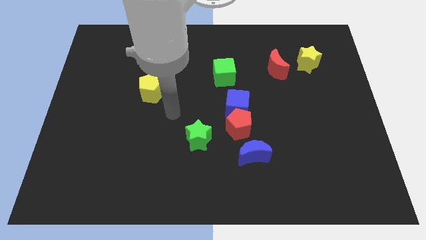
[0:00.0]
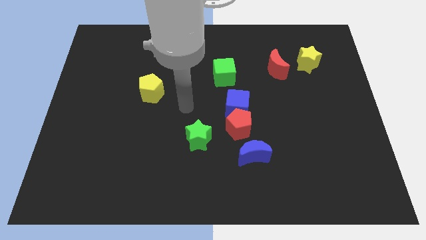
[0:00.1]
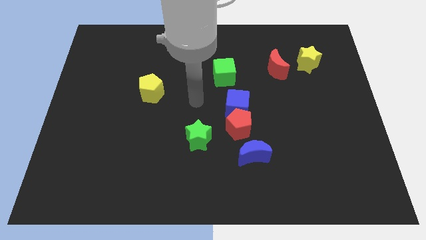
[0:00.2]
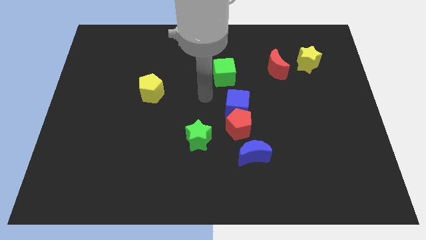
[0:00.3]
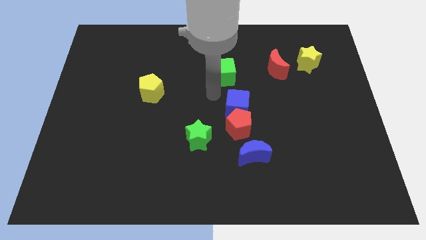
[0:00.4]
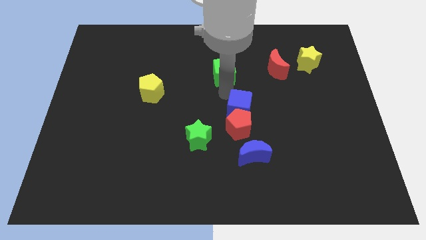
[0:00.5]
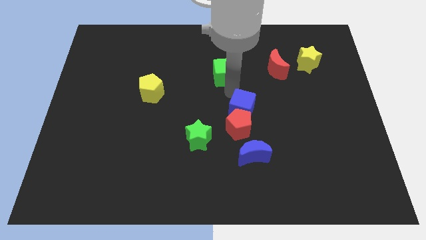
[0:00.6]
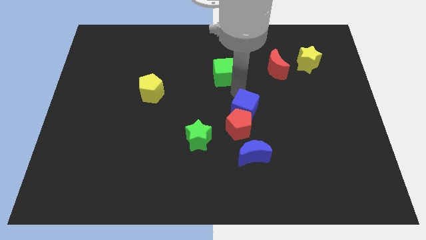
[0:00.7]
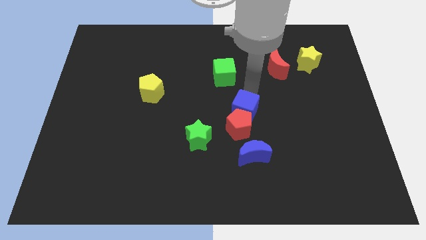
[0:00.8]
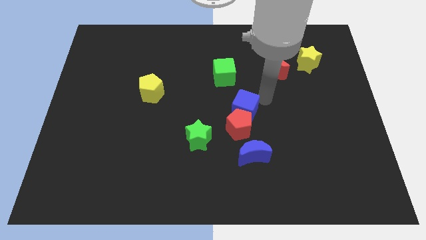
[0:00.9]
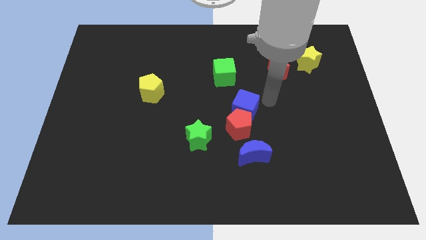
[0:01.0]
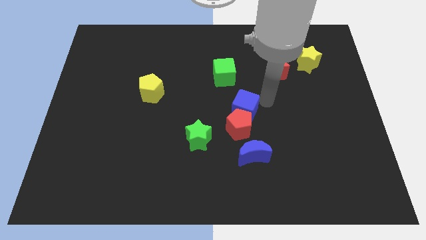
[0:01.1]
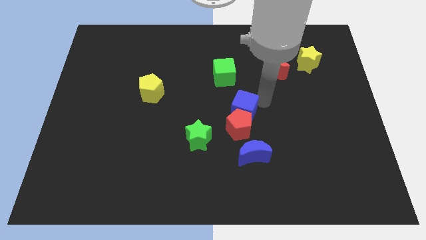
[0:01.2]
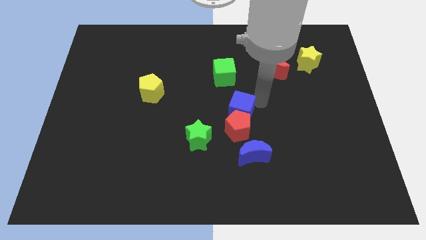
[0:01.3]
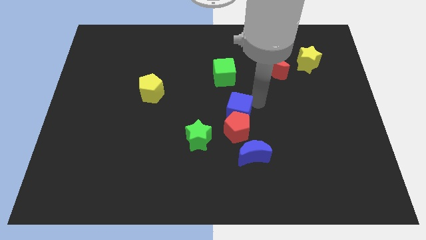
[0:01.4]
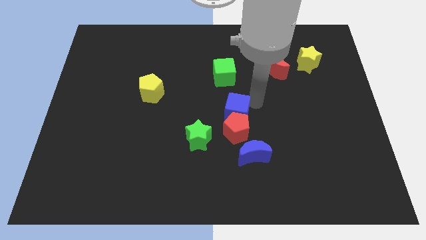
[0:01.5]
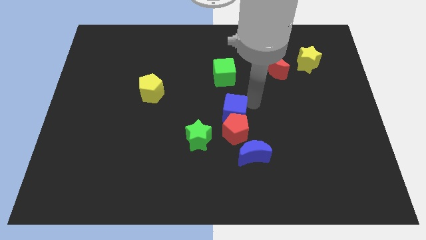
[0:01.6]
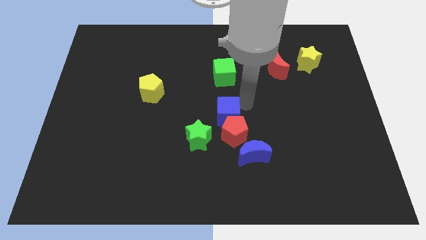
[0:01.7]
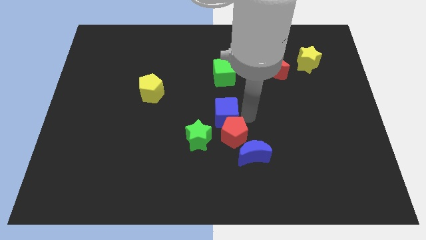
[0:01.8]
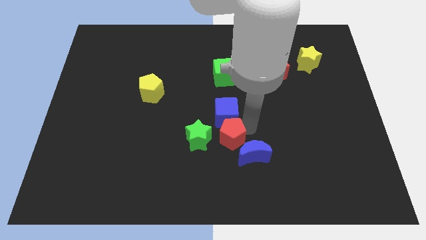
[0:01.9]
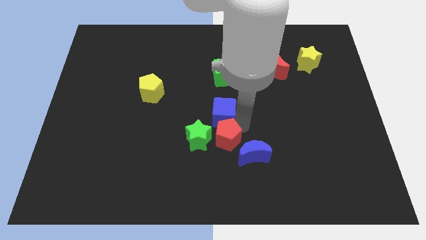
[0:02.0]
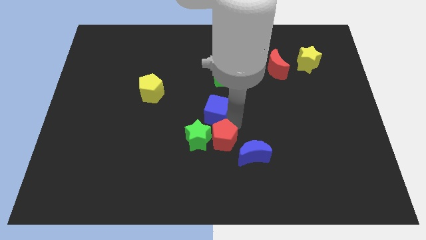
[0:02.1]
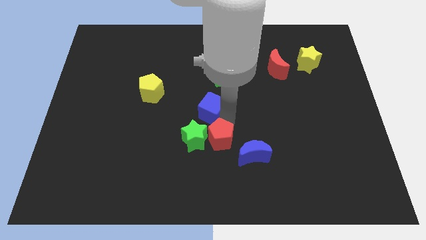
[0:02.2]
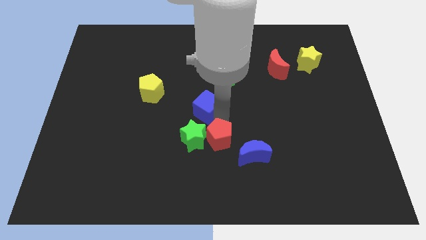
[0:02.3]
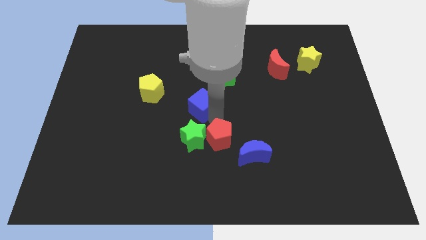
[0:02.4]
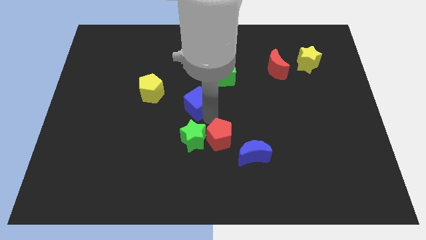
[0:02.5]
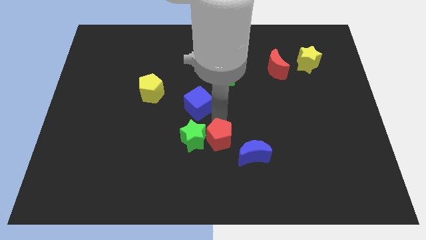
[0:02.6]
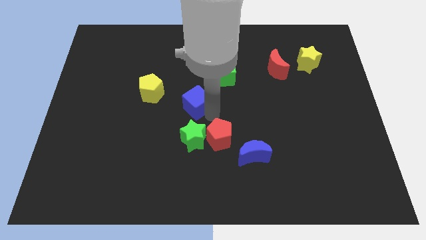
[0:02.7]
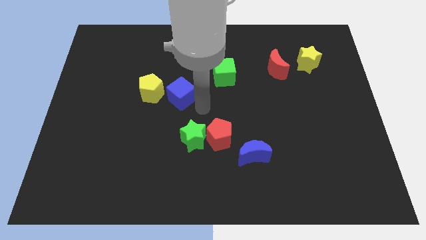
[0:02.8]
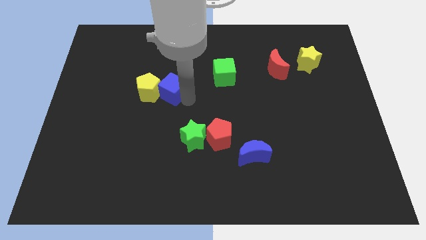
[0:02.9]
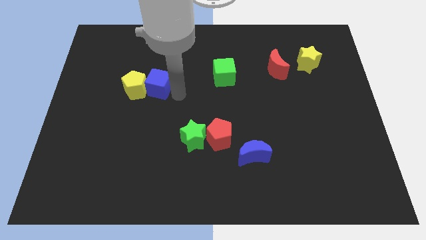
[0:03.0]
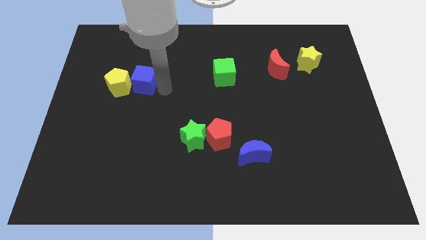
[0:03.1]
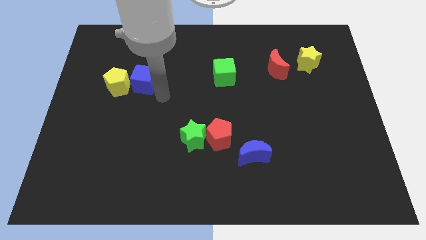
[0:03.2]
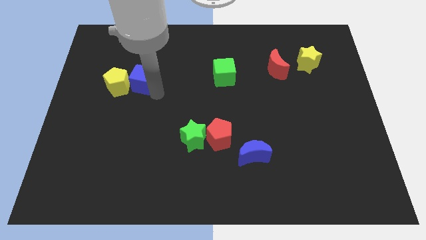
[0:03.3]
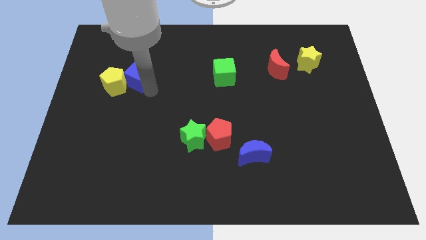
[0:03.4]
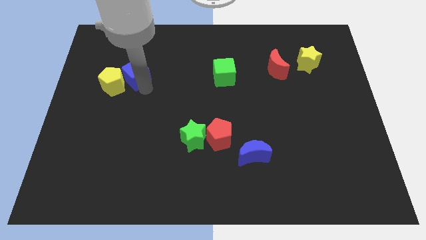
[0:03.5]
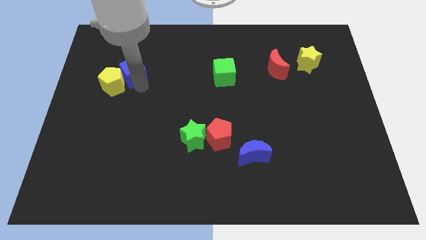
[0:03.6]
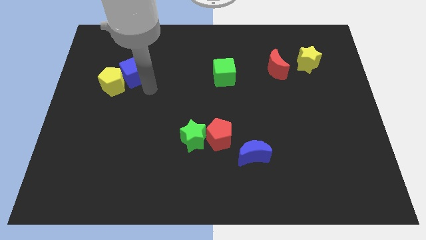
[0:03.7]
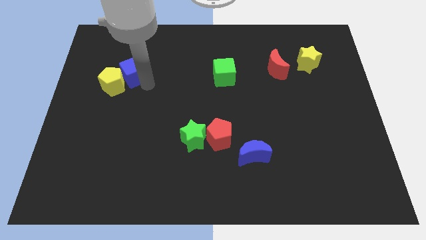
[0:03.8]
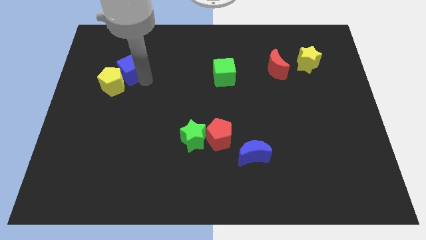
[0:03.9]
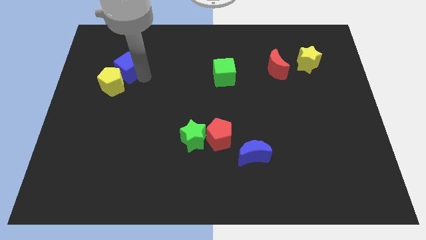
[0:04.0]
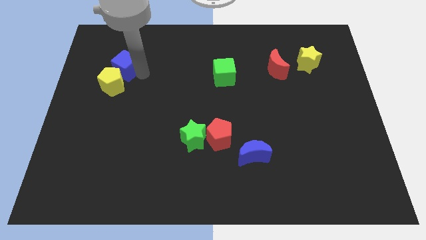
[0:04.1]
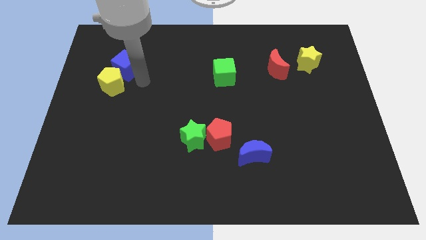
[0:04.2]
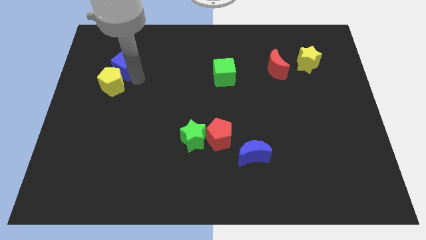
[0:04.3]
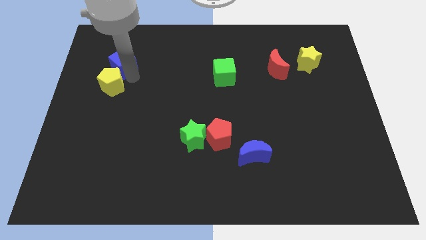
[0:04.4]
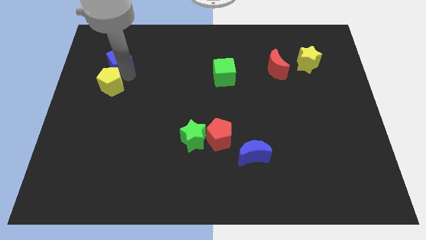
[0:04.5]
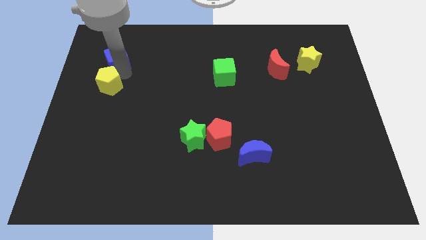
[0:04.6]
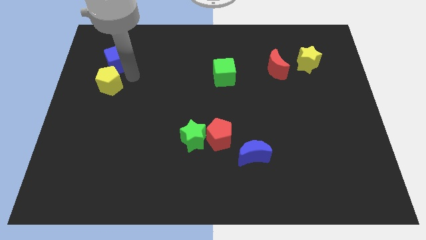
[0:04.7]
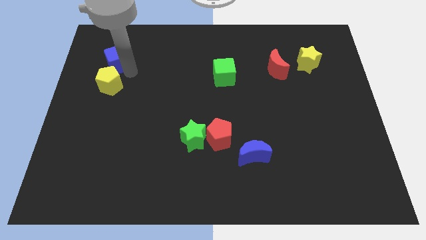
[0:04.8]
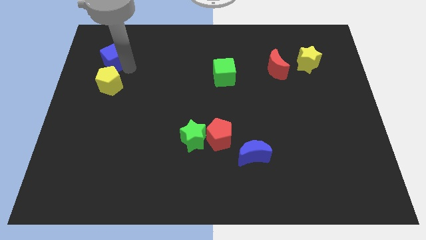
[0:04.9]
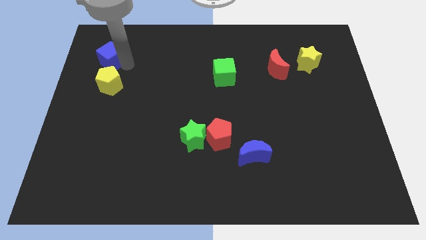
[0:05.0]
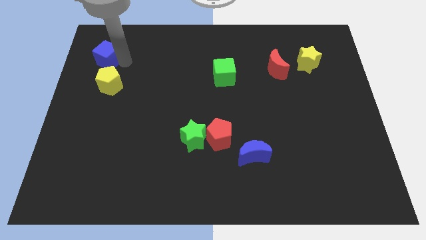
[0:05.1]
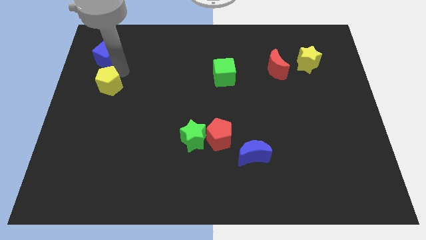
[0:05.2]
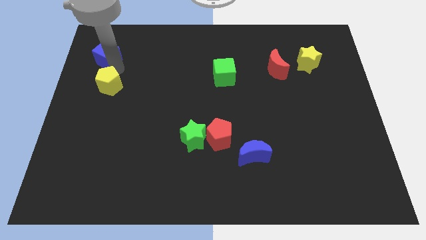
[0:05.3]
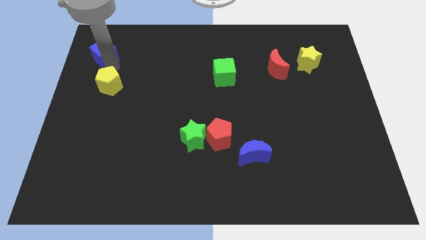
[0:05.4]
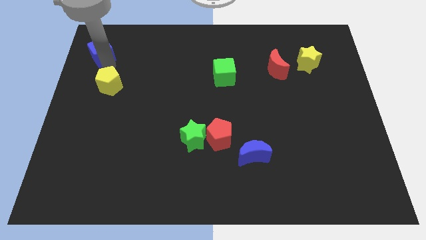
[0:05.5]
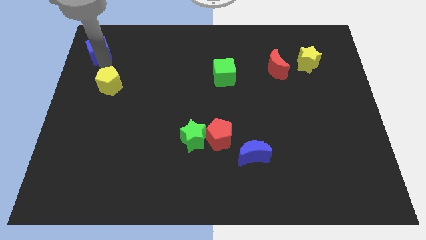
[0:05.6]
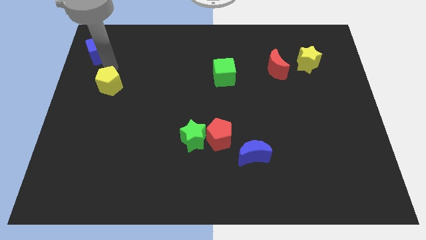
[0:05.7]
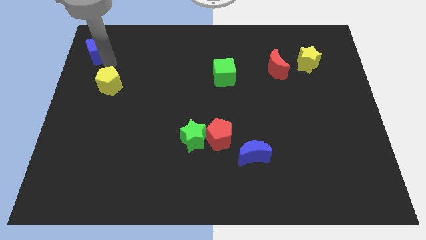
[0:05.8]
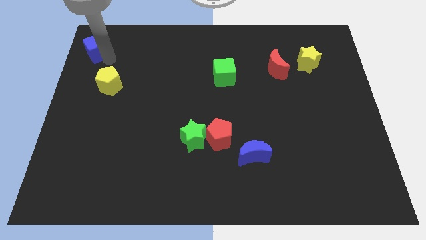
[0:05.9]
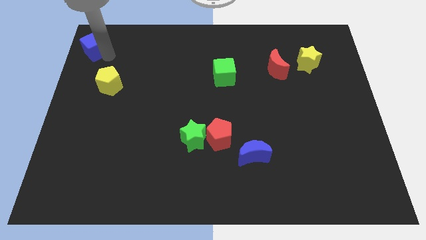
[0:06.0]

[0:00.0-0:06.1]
slide the blue cube to the upper left corner

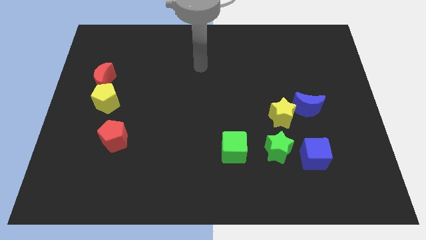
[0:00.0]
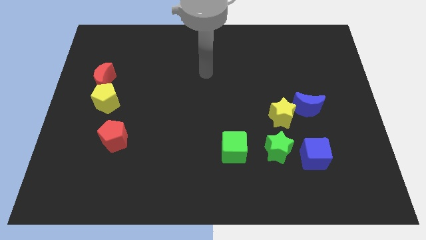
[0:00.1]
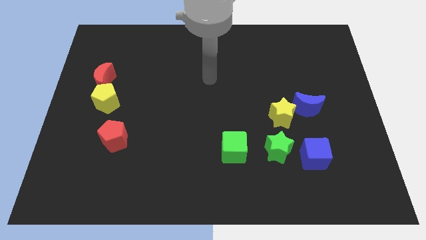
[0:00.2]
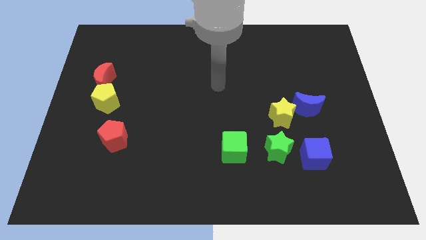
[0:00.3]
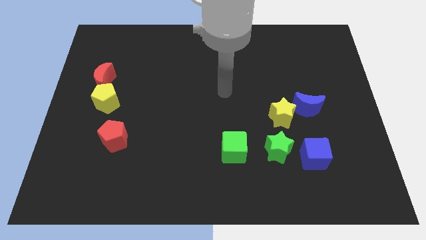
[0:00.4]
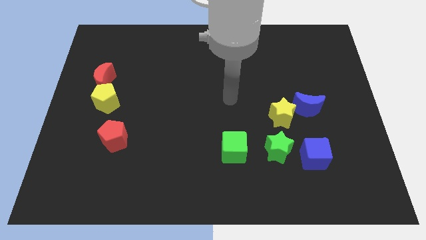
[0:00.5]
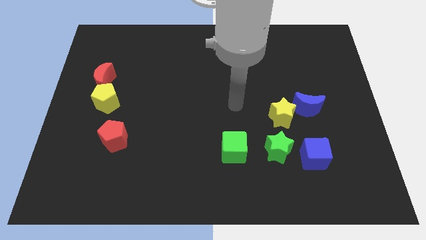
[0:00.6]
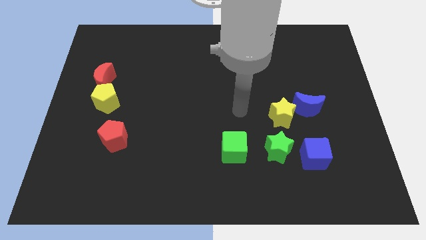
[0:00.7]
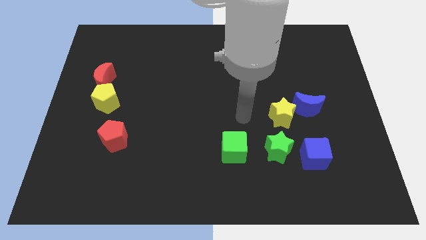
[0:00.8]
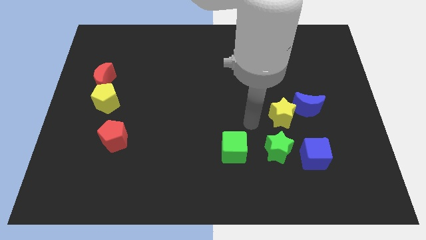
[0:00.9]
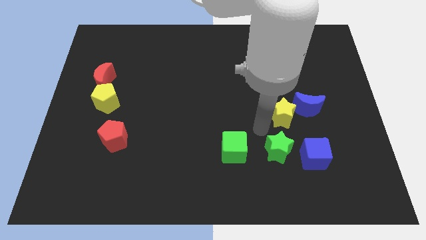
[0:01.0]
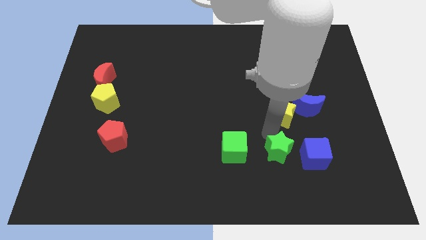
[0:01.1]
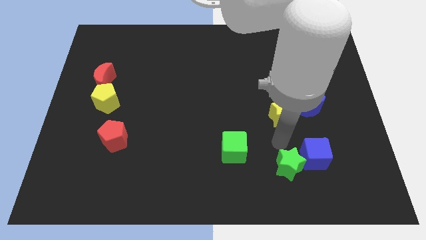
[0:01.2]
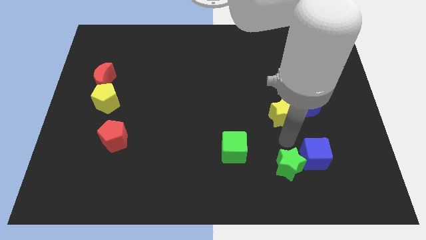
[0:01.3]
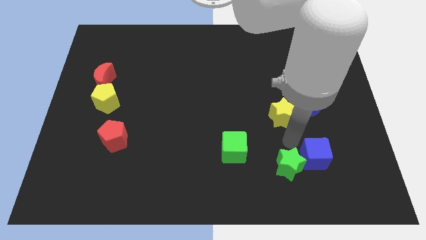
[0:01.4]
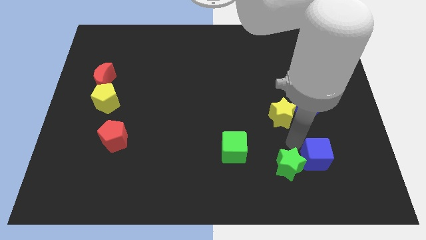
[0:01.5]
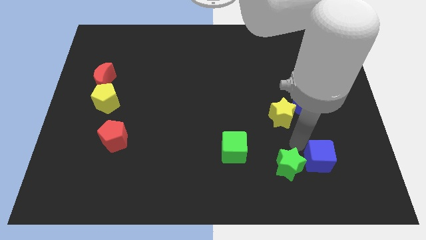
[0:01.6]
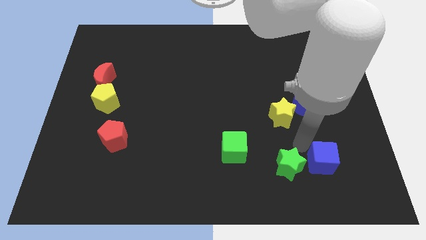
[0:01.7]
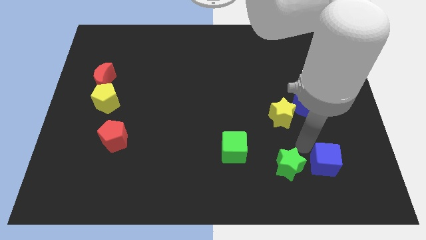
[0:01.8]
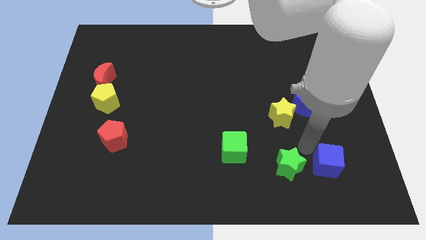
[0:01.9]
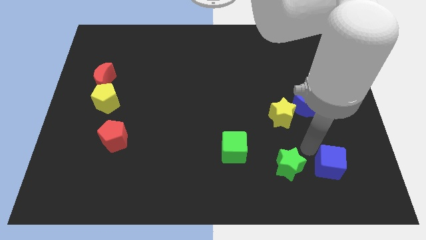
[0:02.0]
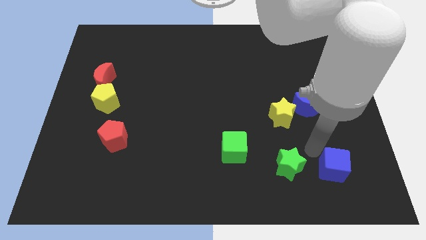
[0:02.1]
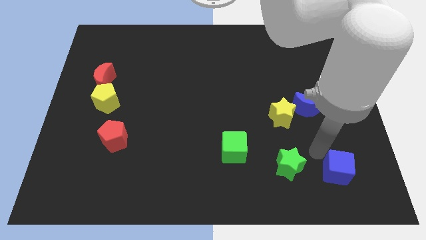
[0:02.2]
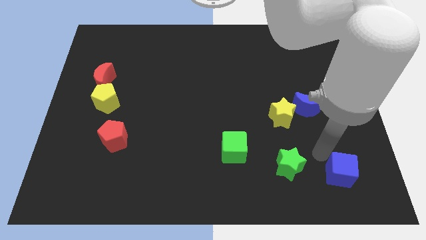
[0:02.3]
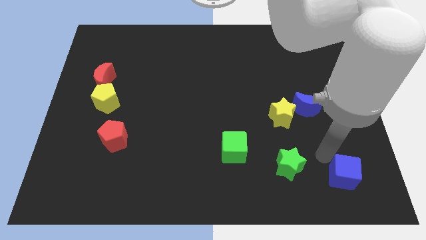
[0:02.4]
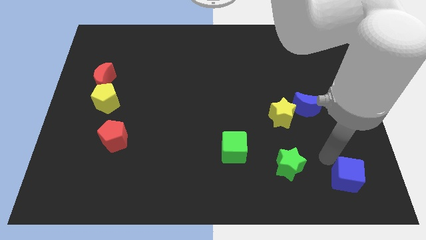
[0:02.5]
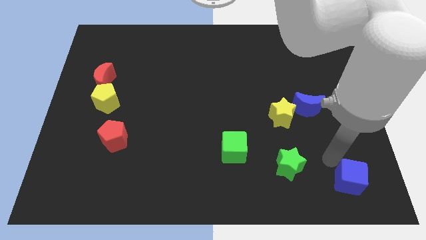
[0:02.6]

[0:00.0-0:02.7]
push the blue cube to the bottom right
